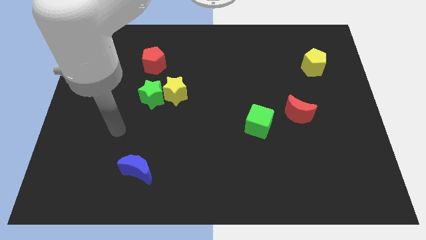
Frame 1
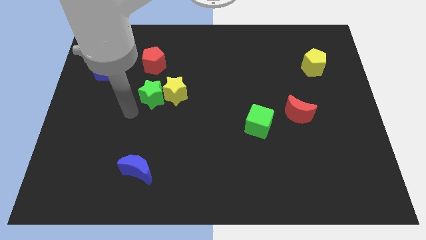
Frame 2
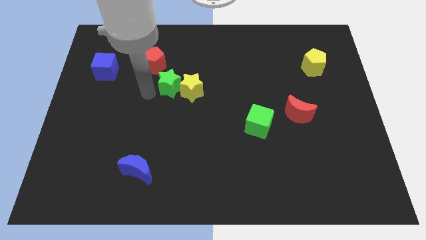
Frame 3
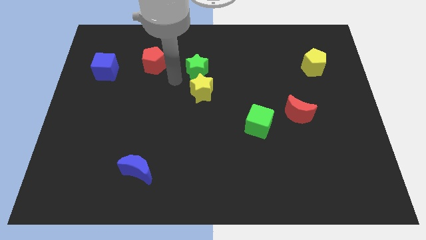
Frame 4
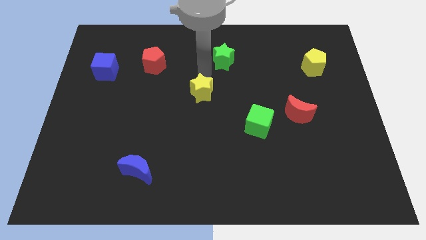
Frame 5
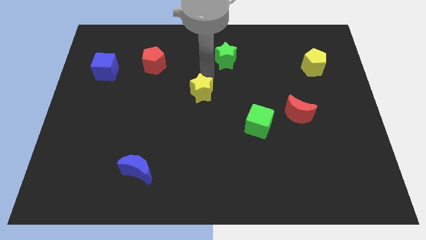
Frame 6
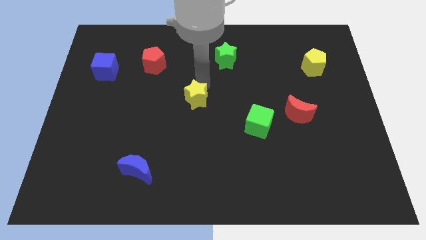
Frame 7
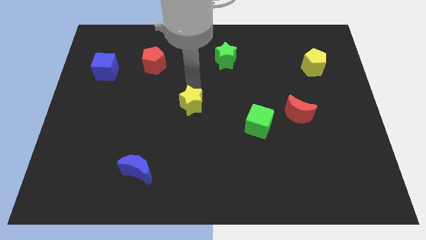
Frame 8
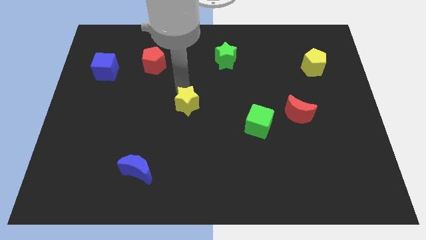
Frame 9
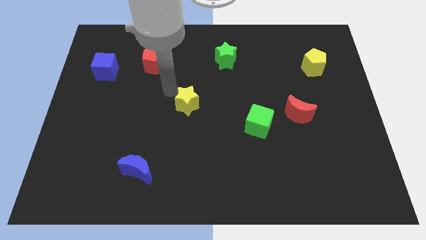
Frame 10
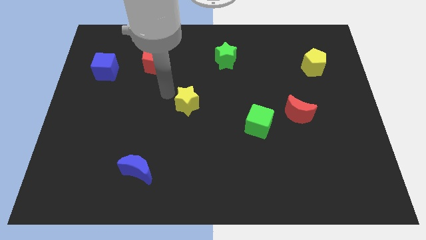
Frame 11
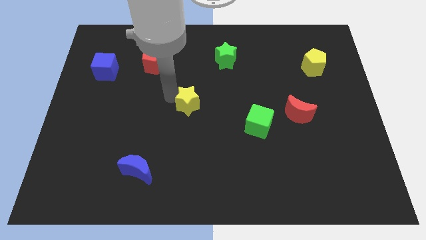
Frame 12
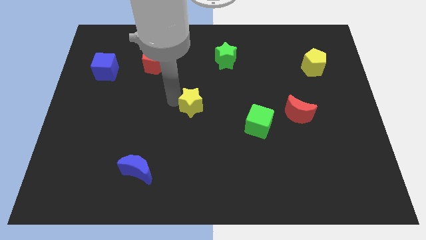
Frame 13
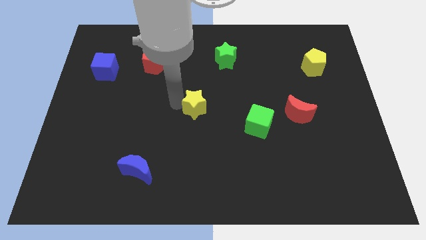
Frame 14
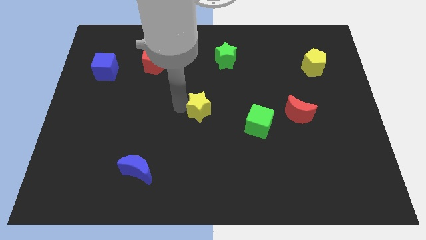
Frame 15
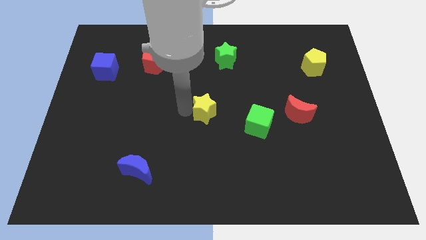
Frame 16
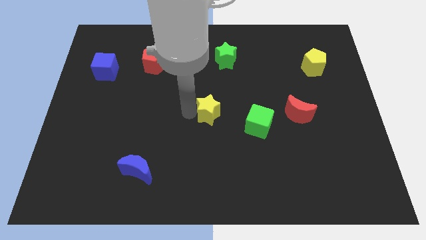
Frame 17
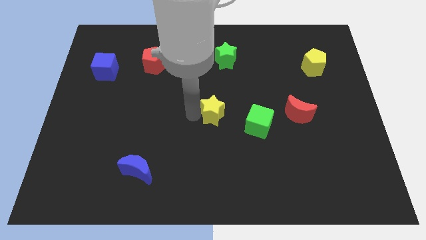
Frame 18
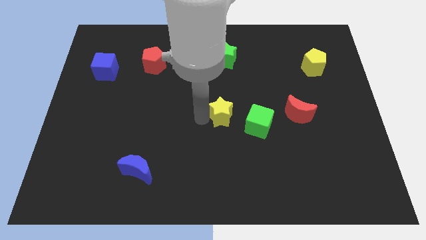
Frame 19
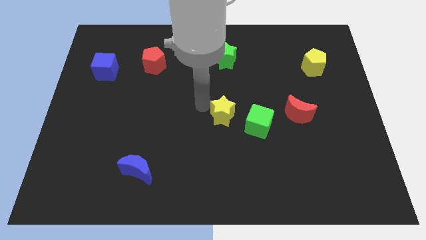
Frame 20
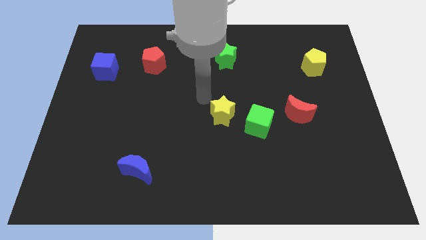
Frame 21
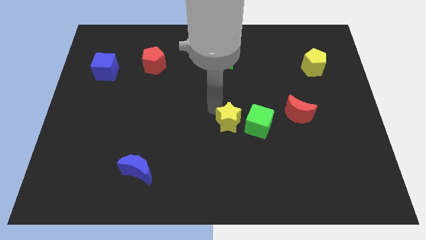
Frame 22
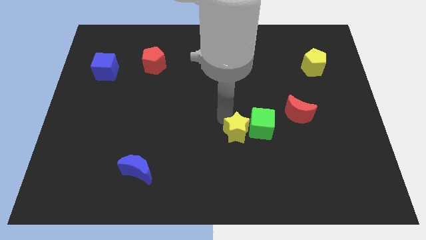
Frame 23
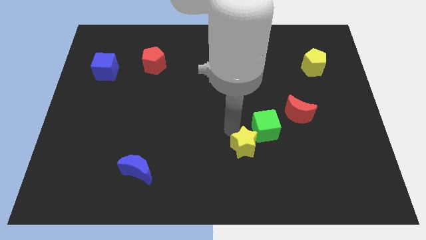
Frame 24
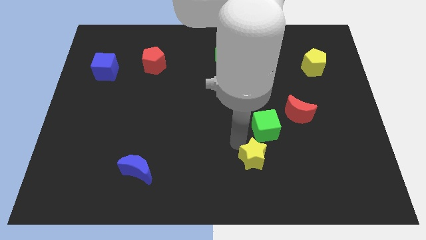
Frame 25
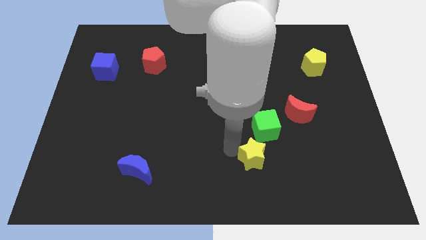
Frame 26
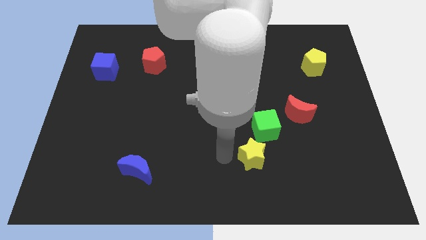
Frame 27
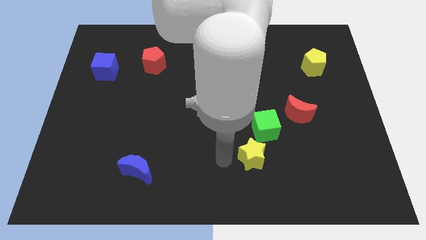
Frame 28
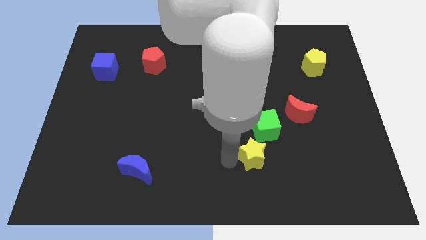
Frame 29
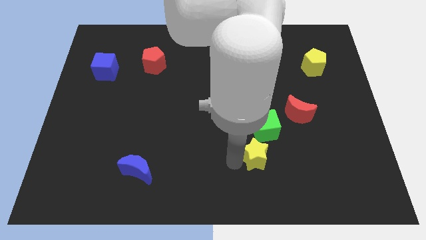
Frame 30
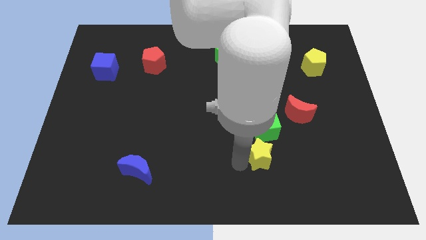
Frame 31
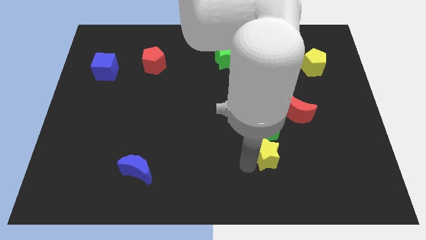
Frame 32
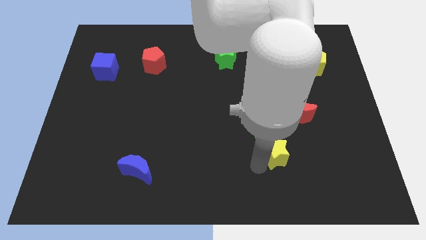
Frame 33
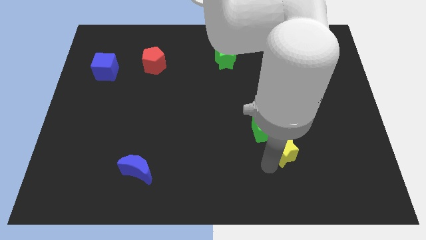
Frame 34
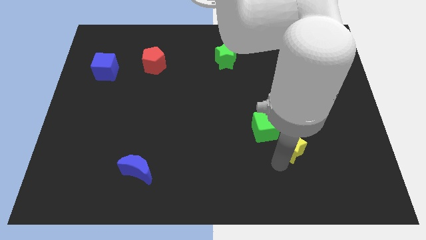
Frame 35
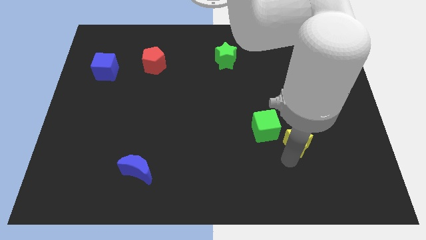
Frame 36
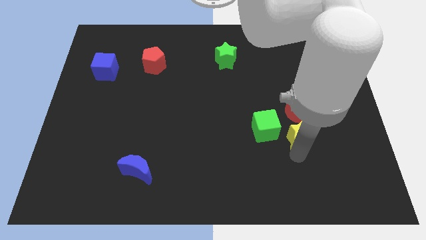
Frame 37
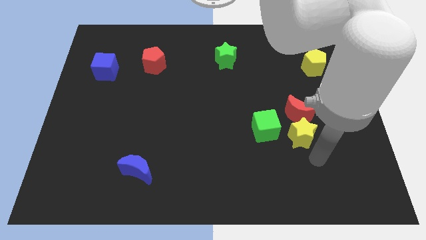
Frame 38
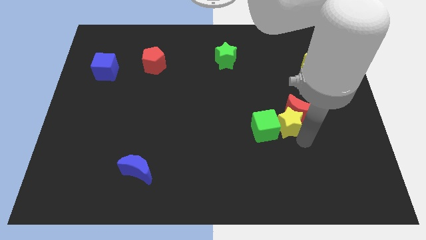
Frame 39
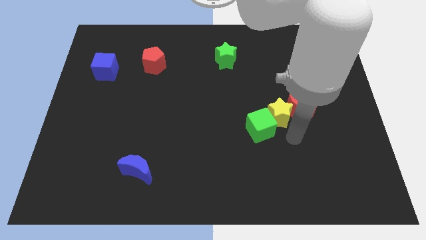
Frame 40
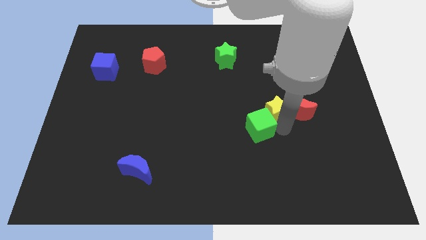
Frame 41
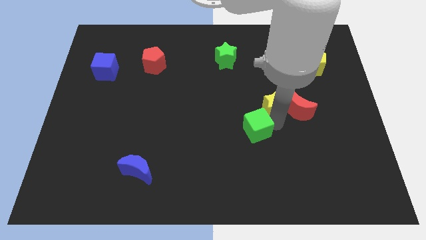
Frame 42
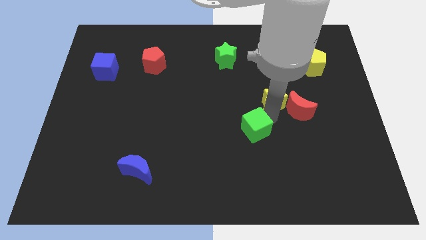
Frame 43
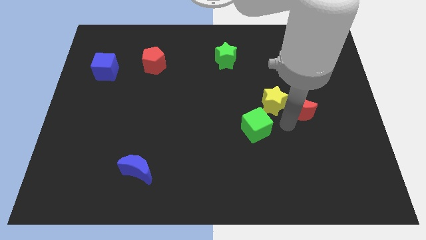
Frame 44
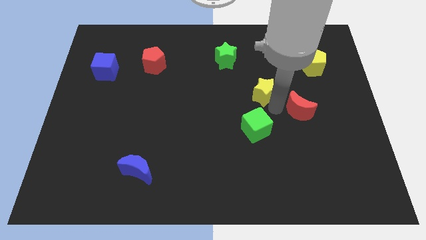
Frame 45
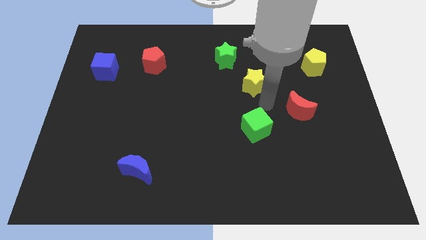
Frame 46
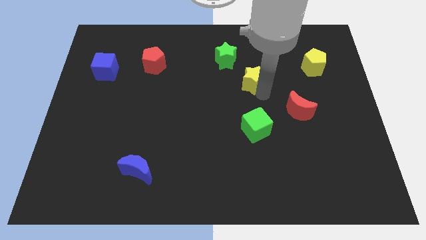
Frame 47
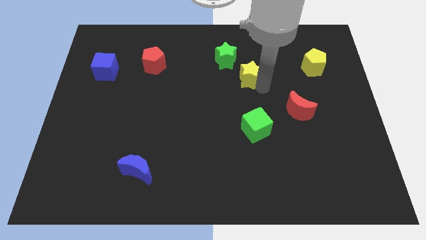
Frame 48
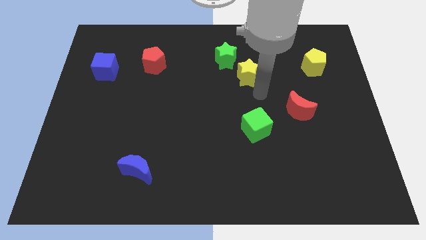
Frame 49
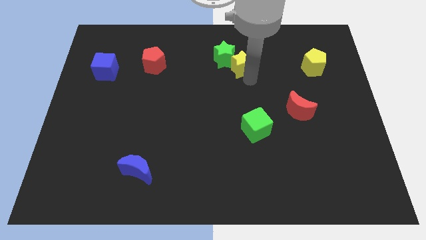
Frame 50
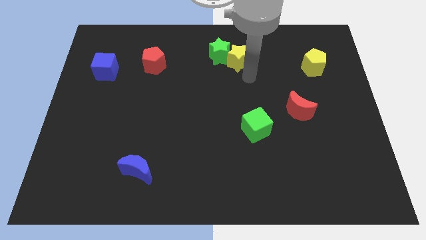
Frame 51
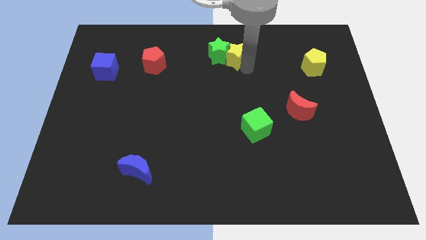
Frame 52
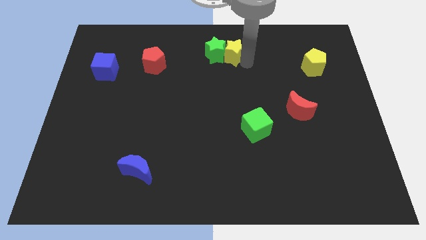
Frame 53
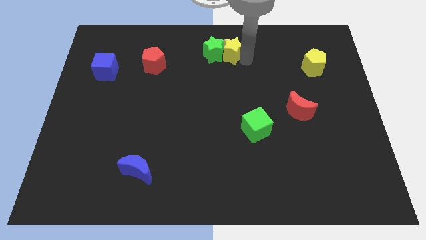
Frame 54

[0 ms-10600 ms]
push the yellow star to the top side

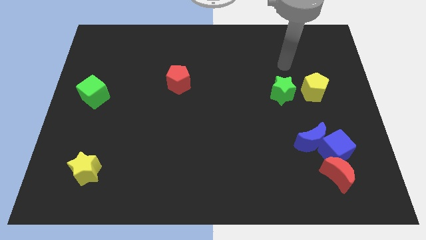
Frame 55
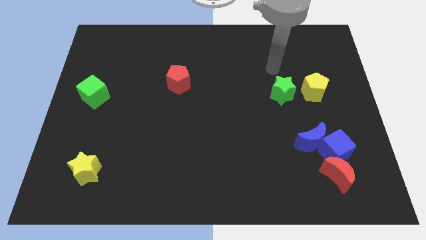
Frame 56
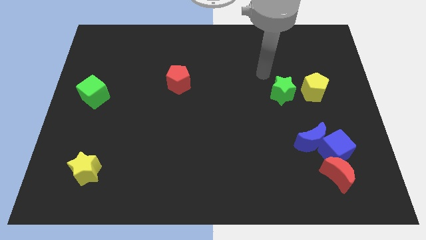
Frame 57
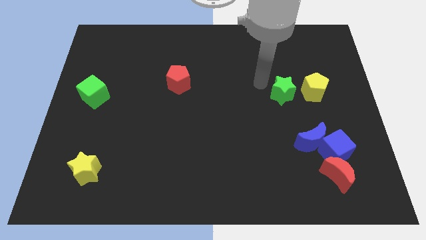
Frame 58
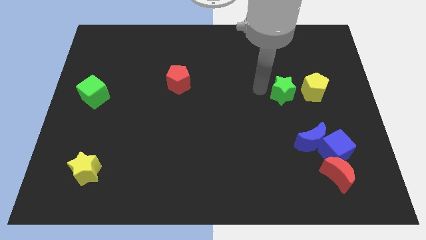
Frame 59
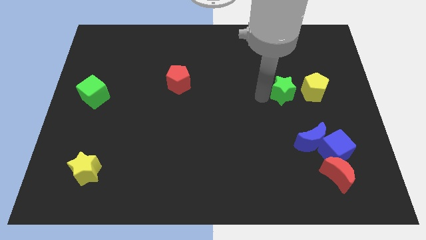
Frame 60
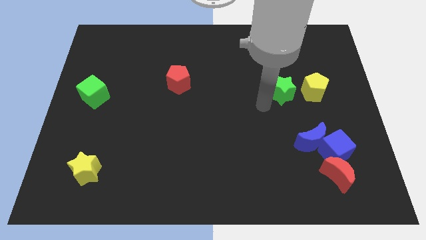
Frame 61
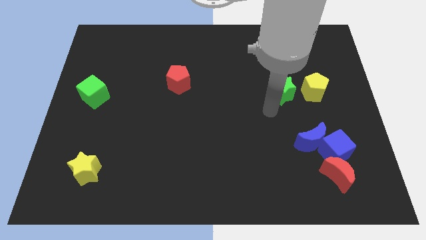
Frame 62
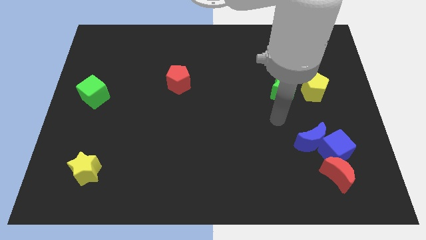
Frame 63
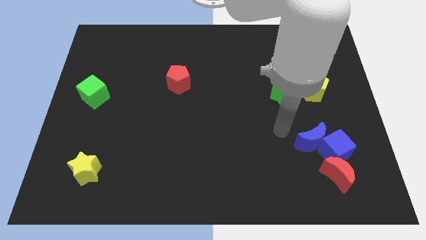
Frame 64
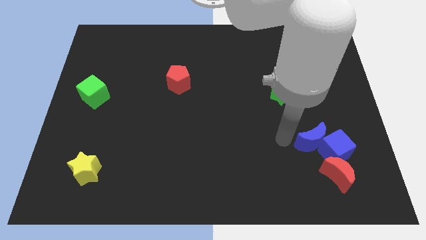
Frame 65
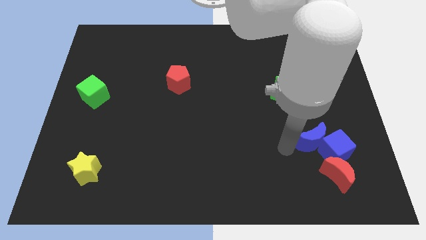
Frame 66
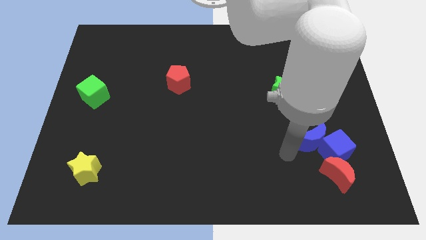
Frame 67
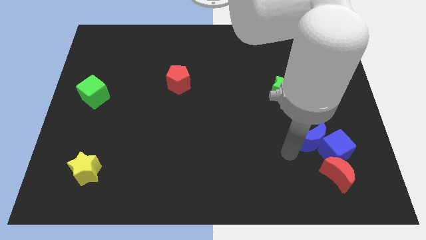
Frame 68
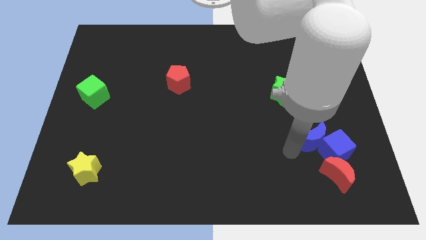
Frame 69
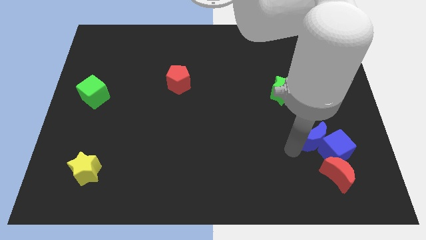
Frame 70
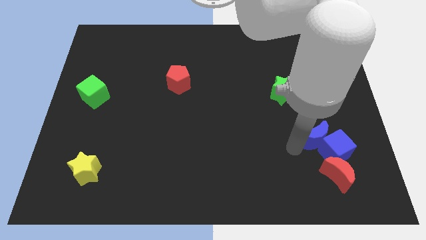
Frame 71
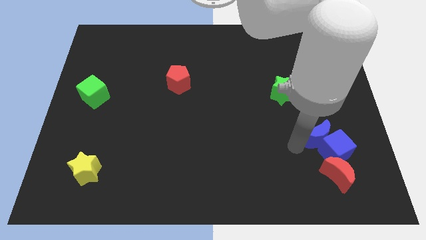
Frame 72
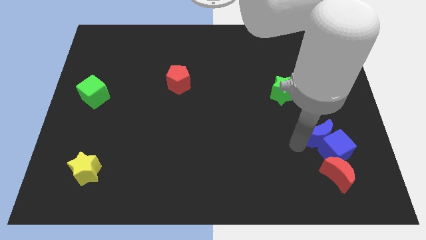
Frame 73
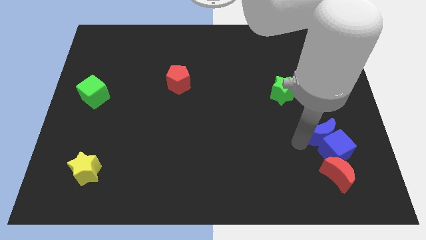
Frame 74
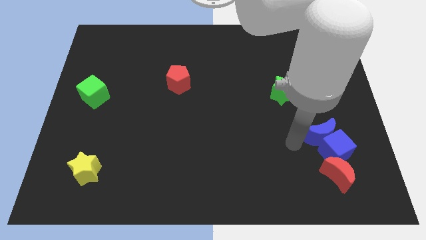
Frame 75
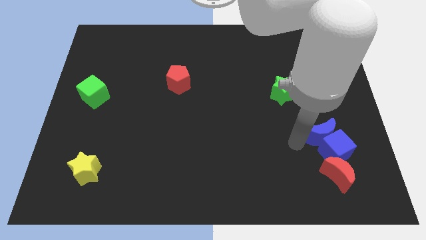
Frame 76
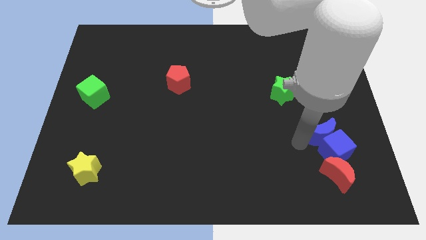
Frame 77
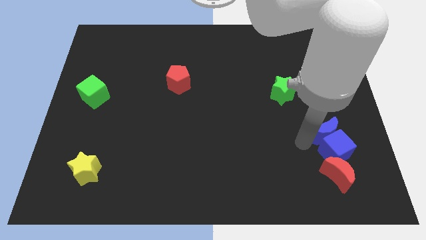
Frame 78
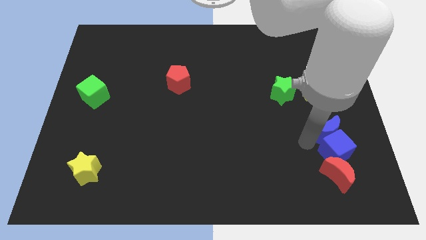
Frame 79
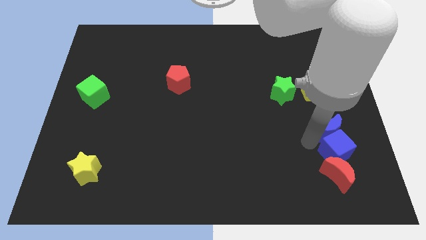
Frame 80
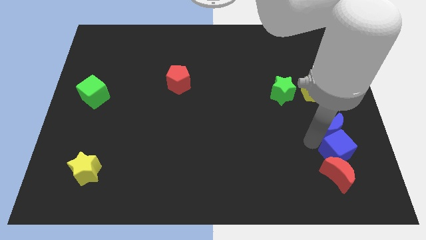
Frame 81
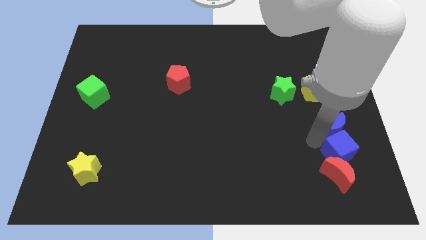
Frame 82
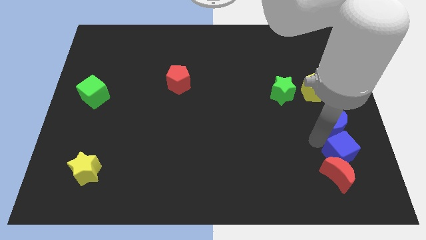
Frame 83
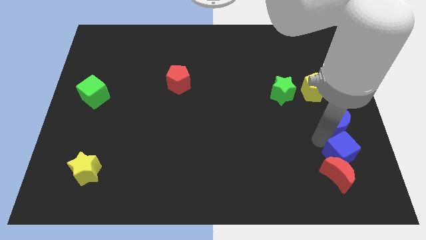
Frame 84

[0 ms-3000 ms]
push the blue moon to the center right
